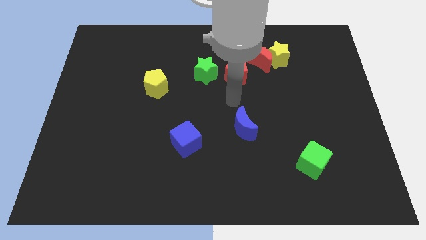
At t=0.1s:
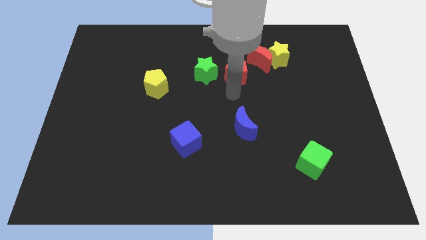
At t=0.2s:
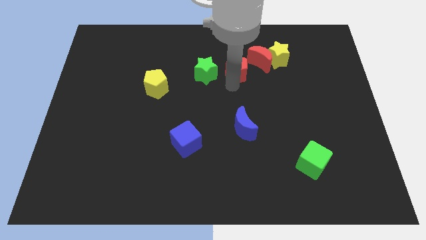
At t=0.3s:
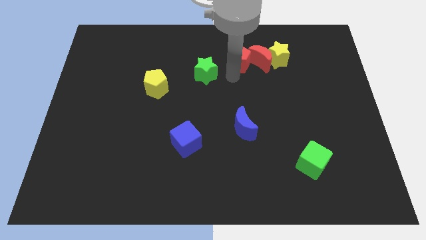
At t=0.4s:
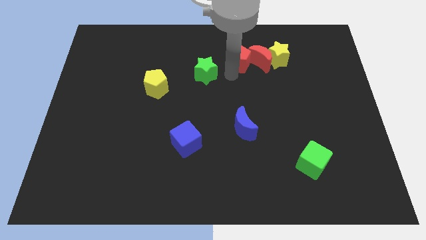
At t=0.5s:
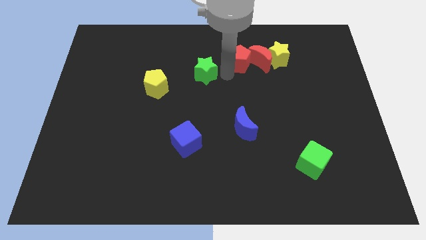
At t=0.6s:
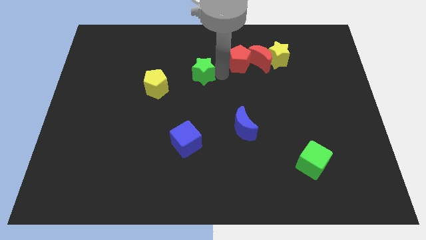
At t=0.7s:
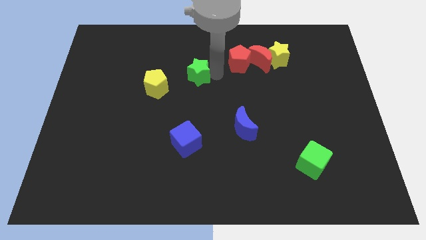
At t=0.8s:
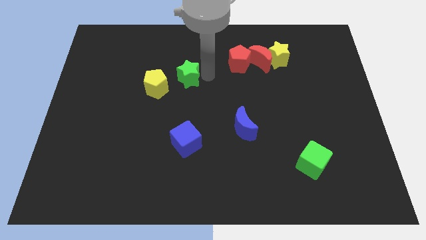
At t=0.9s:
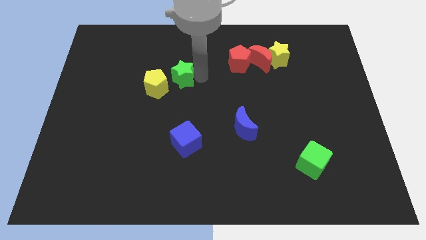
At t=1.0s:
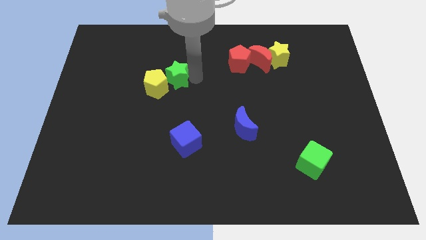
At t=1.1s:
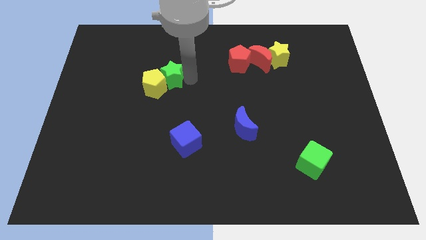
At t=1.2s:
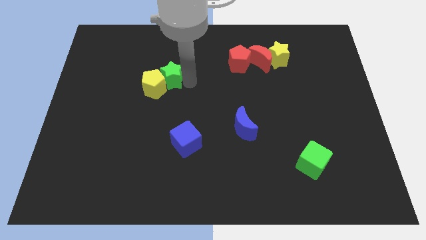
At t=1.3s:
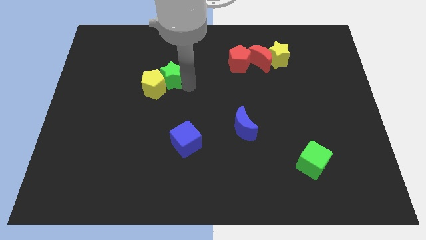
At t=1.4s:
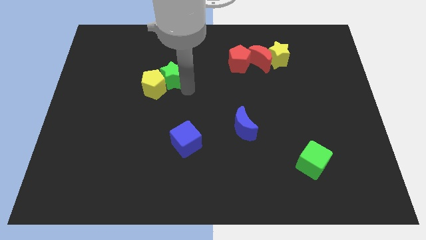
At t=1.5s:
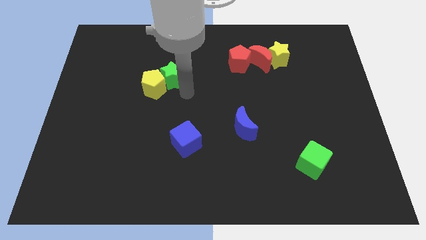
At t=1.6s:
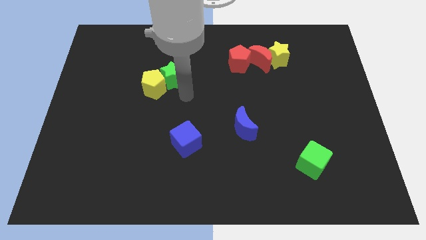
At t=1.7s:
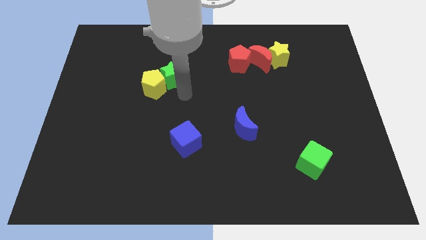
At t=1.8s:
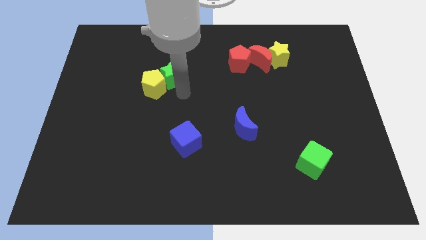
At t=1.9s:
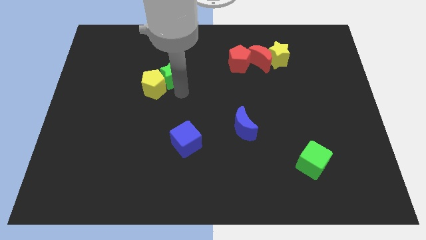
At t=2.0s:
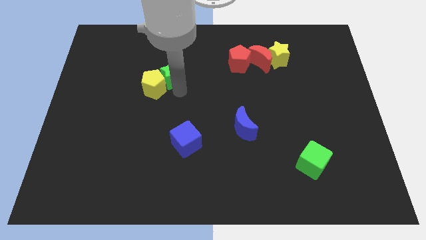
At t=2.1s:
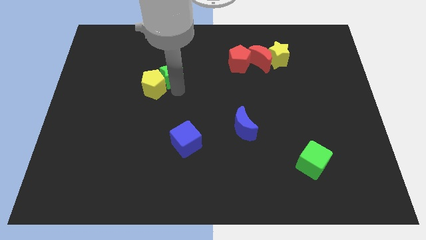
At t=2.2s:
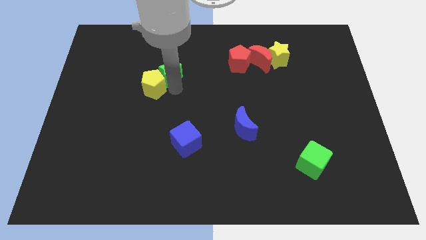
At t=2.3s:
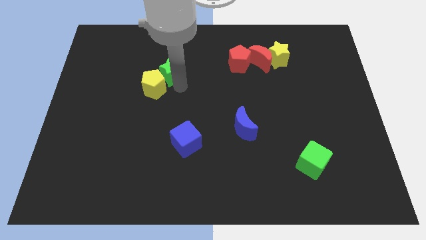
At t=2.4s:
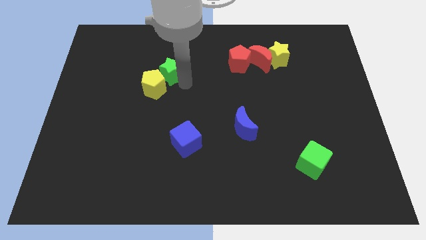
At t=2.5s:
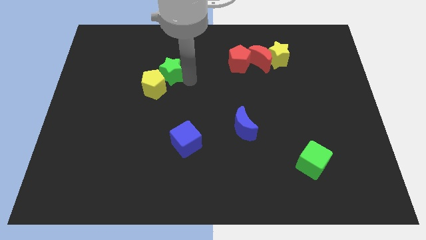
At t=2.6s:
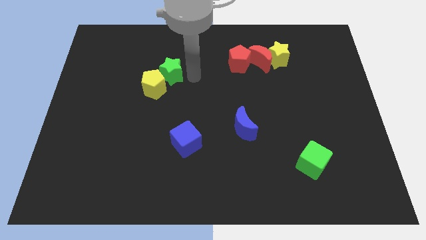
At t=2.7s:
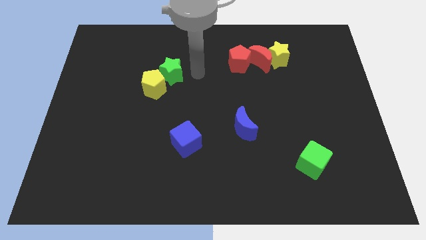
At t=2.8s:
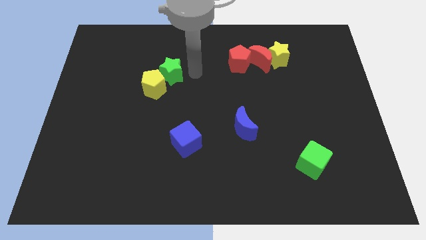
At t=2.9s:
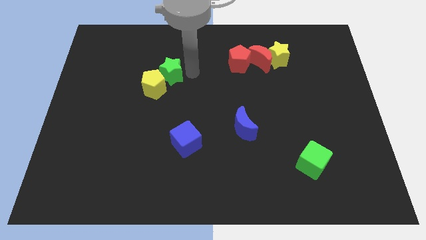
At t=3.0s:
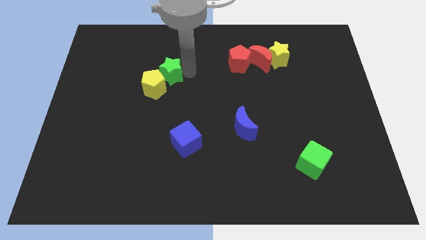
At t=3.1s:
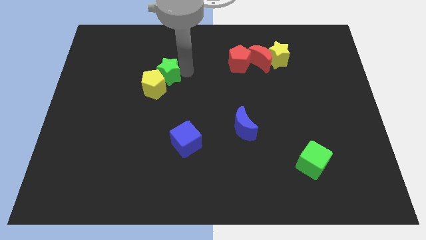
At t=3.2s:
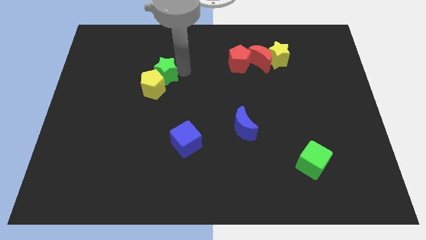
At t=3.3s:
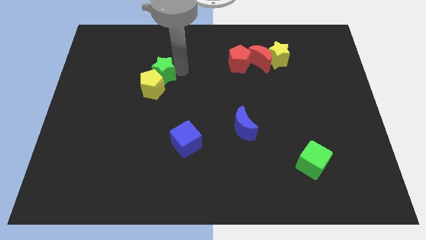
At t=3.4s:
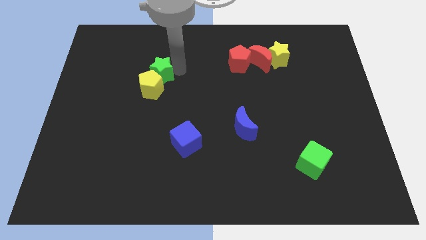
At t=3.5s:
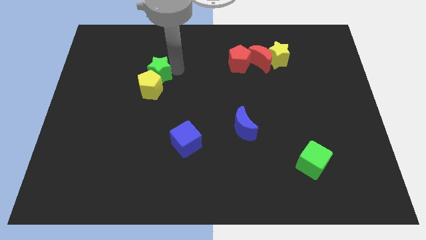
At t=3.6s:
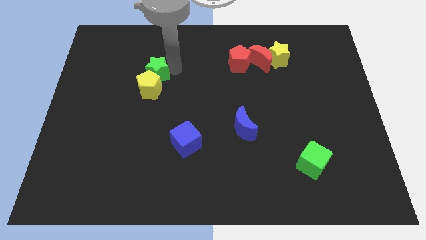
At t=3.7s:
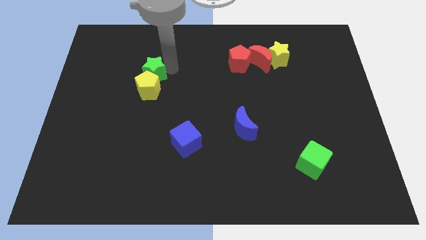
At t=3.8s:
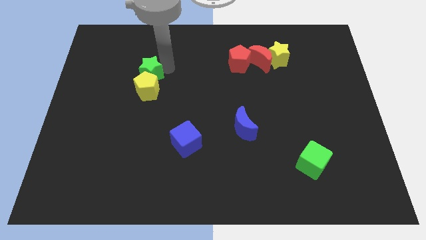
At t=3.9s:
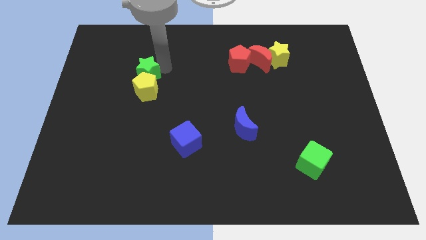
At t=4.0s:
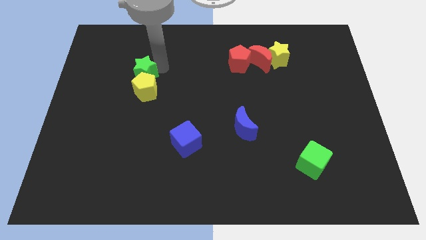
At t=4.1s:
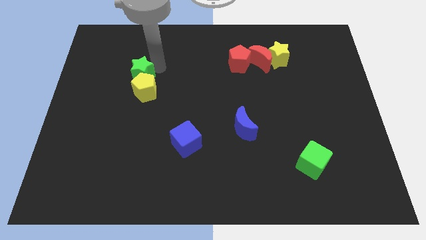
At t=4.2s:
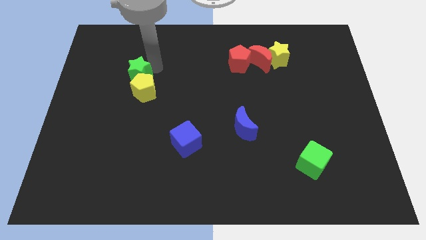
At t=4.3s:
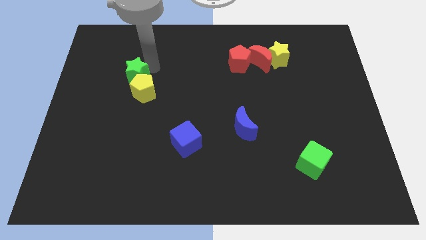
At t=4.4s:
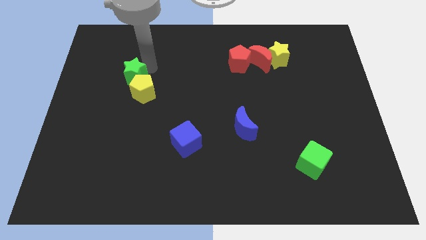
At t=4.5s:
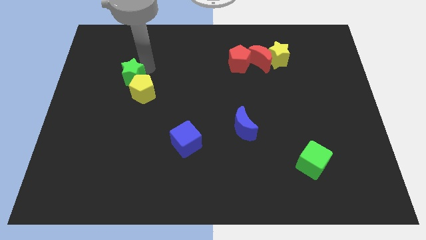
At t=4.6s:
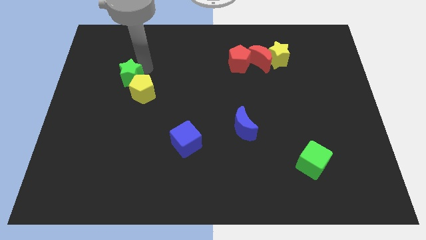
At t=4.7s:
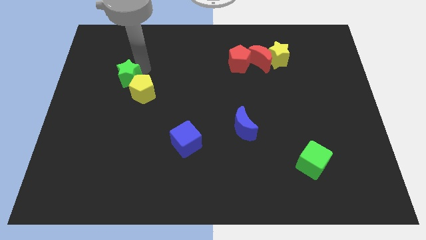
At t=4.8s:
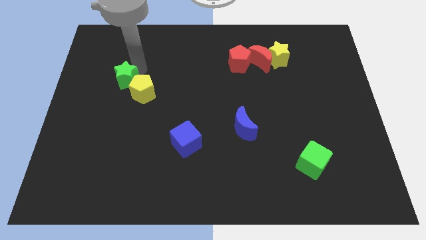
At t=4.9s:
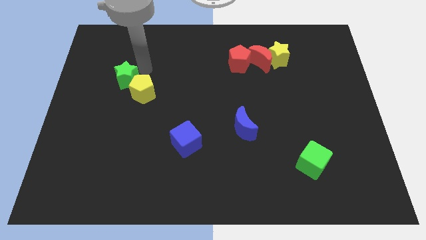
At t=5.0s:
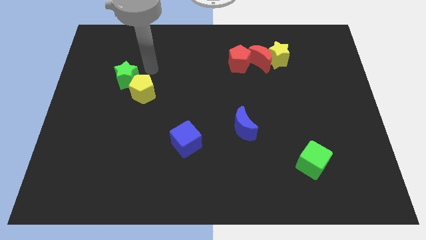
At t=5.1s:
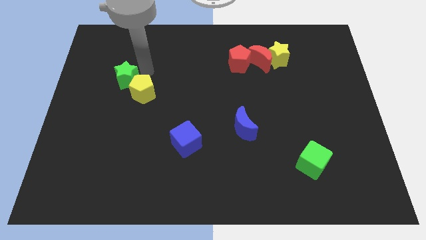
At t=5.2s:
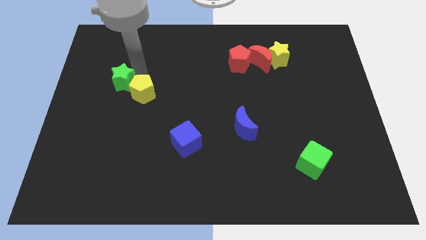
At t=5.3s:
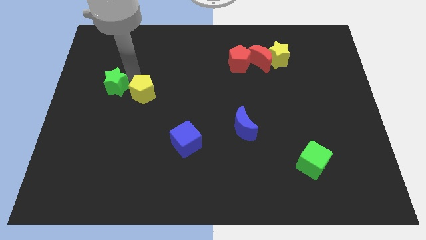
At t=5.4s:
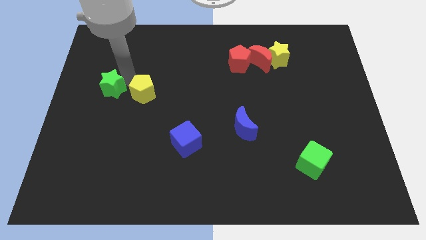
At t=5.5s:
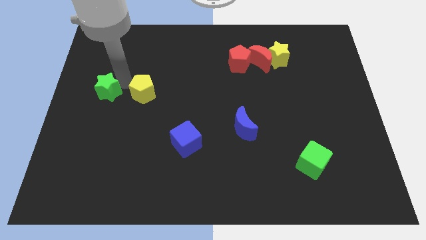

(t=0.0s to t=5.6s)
move the green star to the left side
